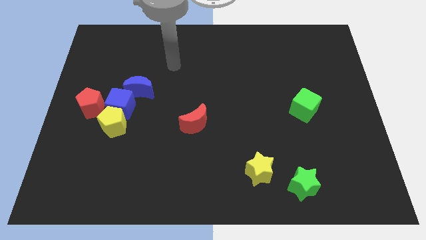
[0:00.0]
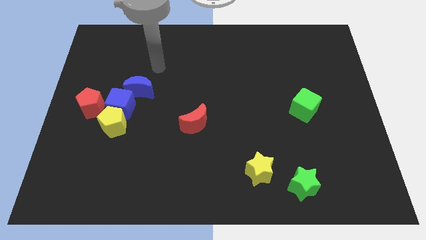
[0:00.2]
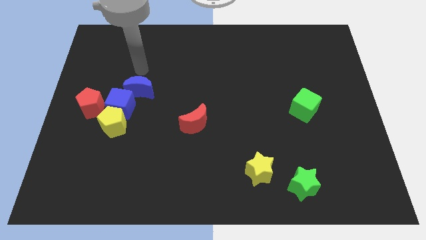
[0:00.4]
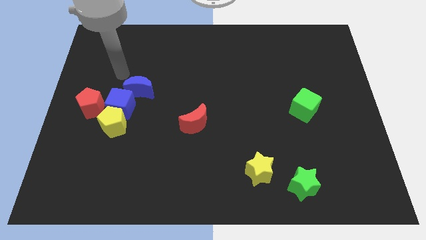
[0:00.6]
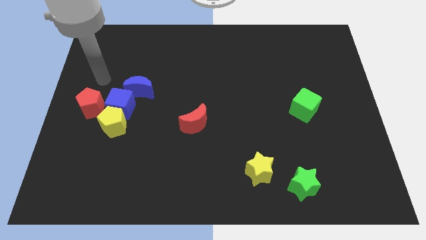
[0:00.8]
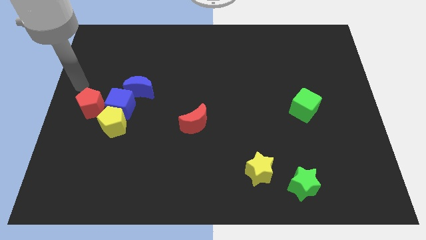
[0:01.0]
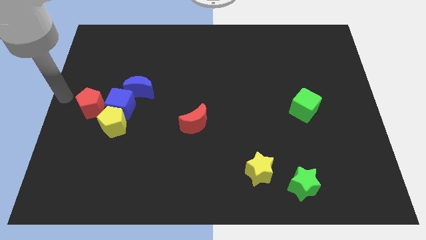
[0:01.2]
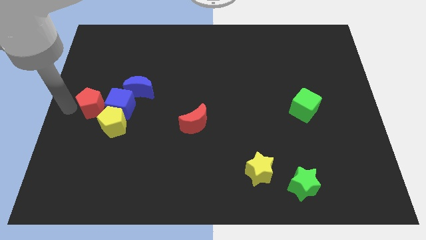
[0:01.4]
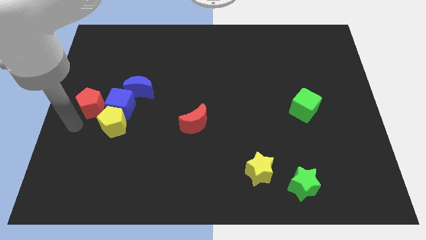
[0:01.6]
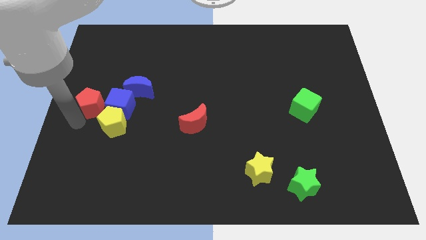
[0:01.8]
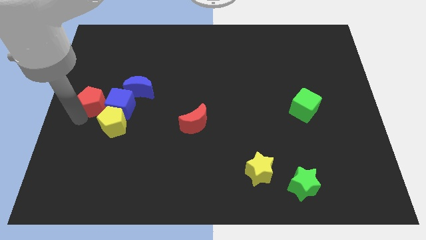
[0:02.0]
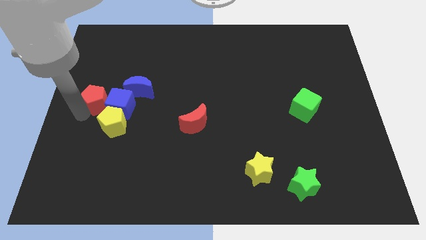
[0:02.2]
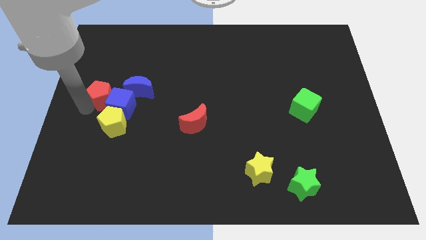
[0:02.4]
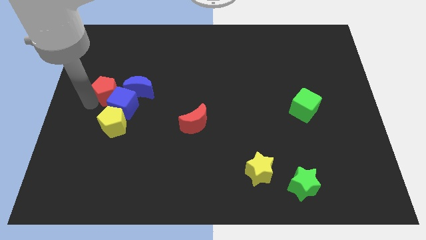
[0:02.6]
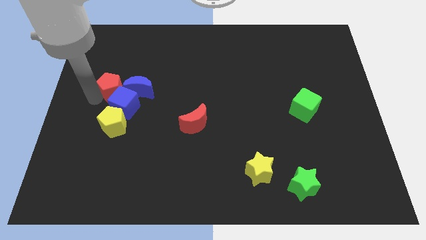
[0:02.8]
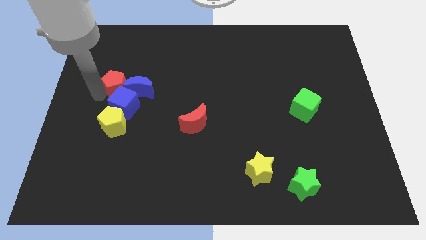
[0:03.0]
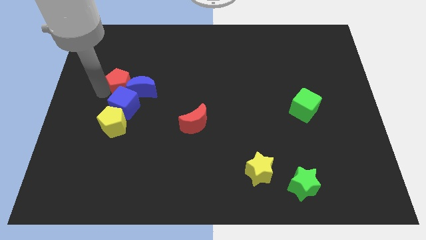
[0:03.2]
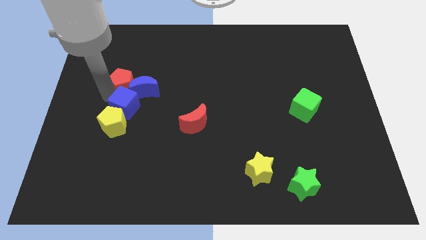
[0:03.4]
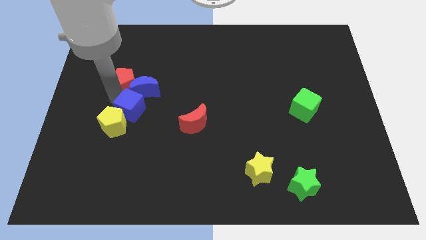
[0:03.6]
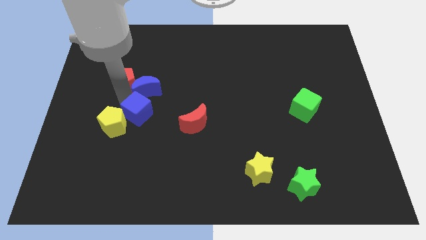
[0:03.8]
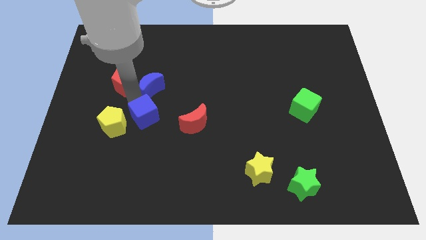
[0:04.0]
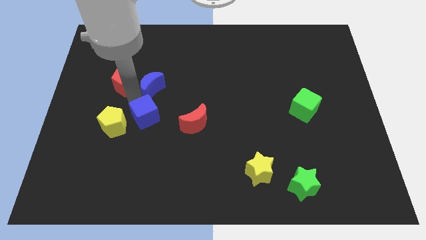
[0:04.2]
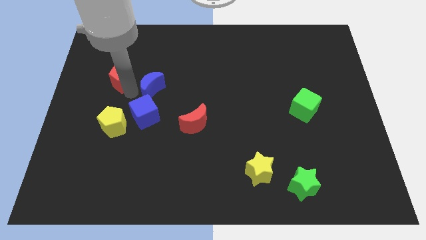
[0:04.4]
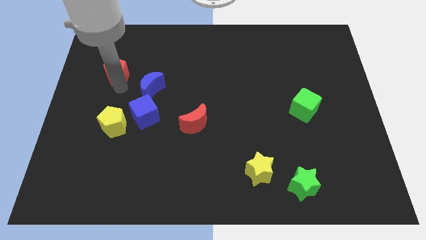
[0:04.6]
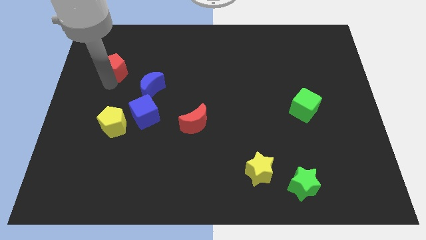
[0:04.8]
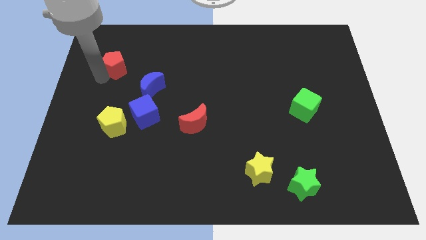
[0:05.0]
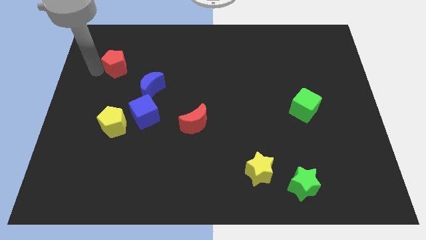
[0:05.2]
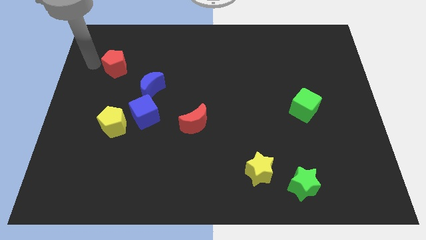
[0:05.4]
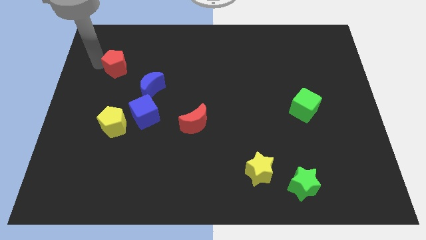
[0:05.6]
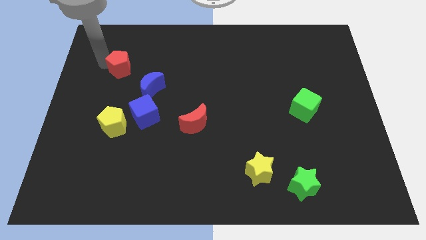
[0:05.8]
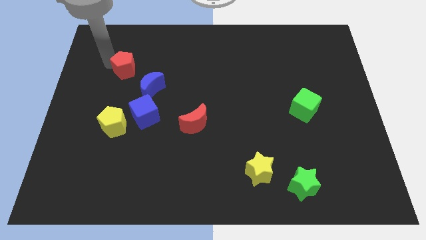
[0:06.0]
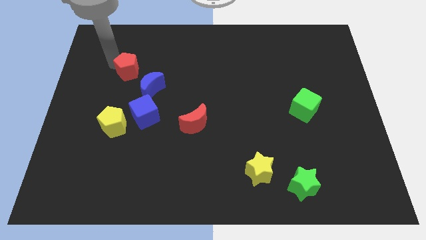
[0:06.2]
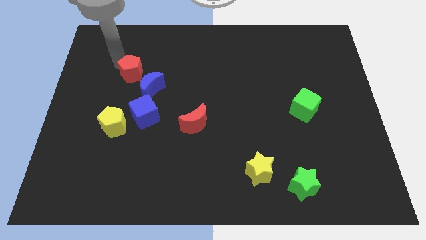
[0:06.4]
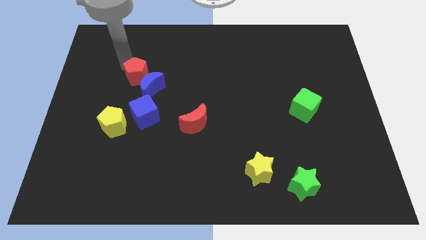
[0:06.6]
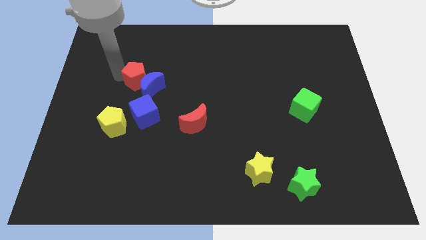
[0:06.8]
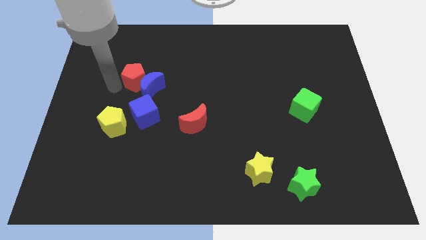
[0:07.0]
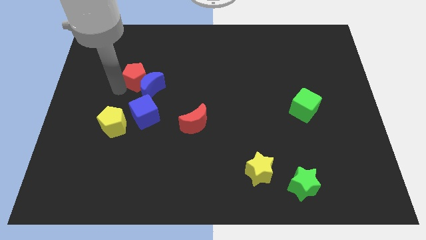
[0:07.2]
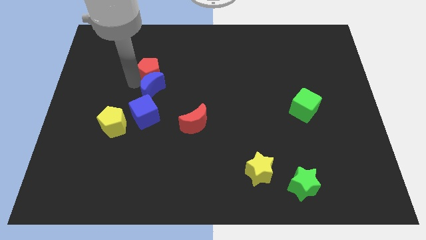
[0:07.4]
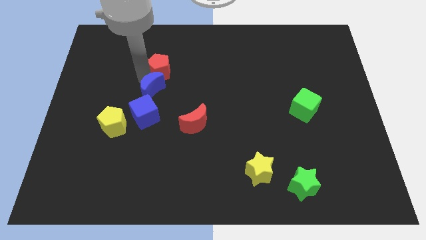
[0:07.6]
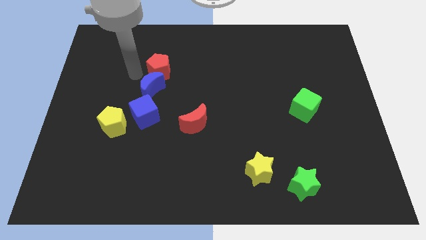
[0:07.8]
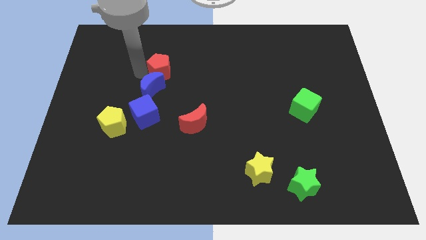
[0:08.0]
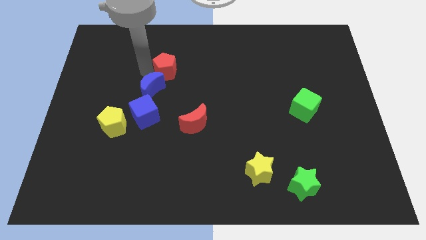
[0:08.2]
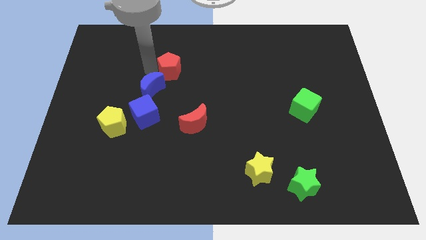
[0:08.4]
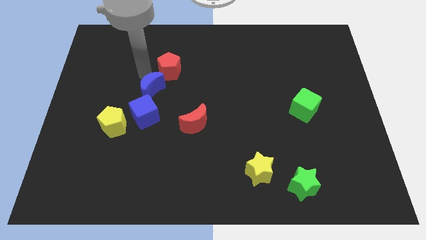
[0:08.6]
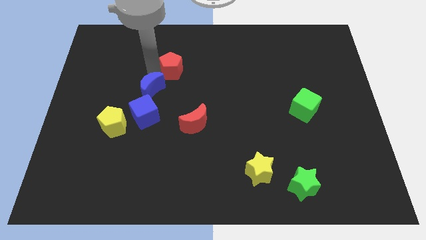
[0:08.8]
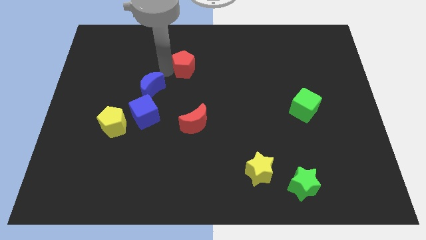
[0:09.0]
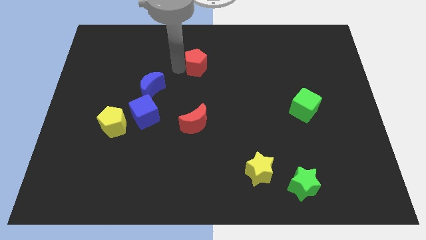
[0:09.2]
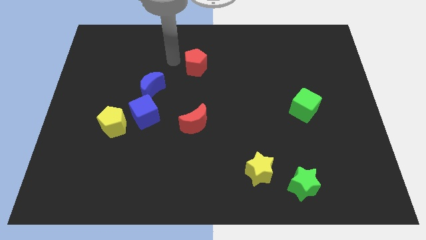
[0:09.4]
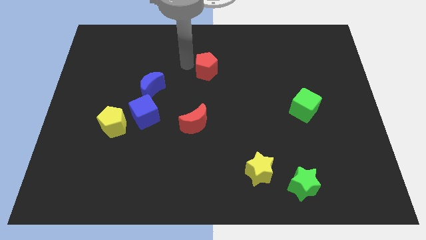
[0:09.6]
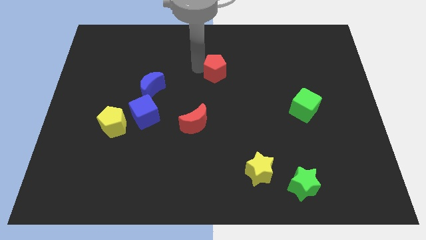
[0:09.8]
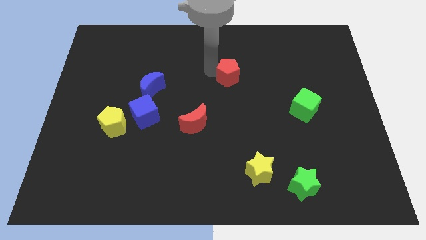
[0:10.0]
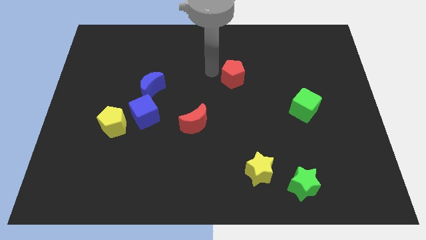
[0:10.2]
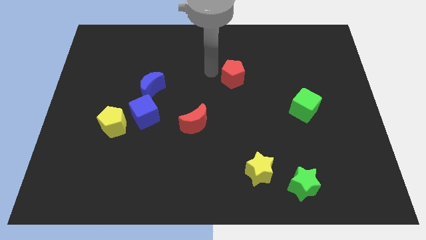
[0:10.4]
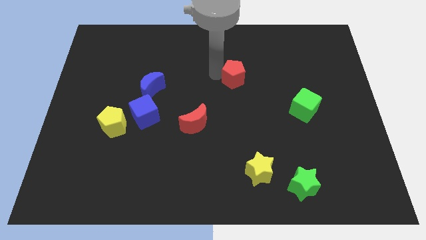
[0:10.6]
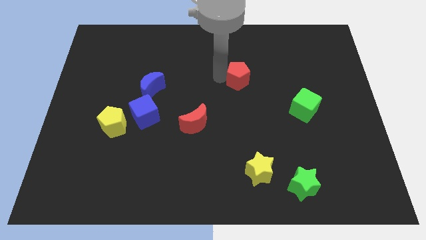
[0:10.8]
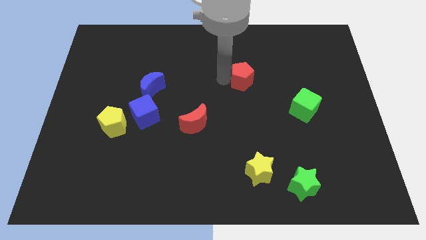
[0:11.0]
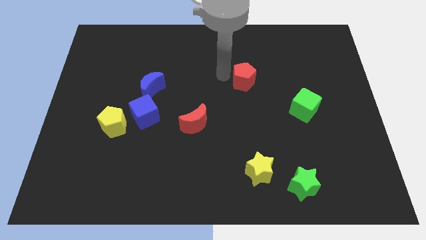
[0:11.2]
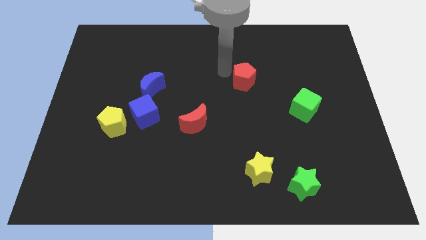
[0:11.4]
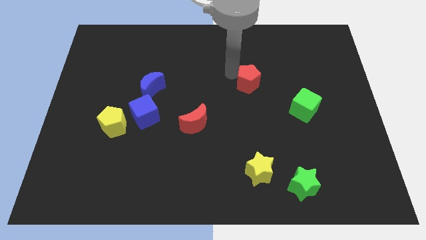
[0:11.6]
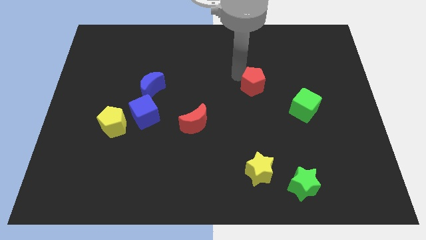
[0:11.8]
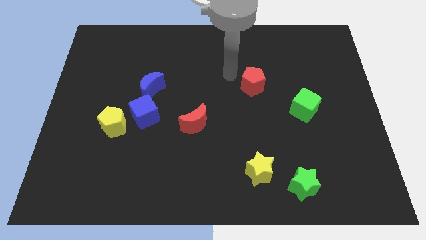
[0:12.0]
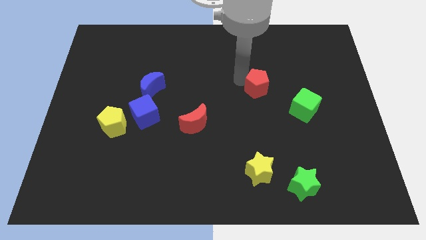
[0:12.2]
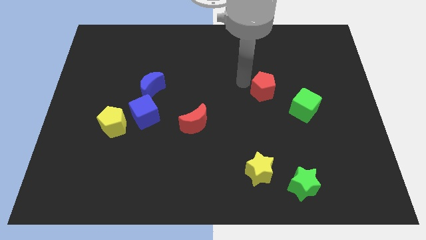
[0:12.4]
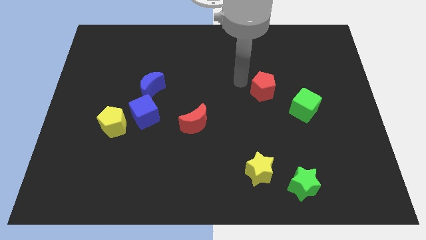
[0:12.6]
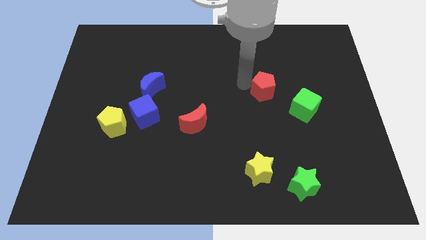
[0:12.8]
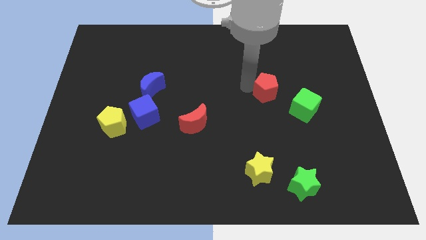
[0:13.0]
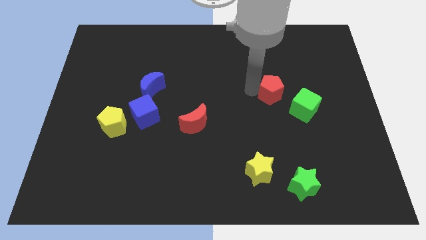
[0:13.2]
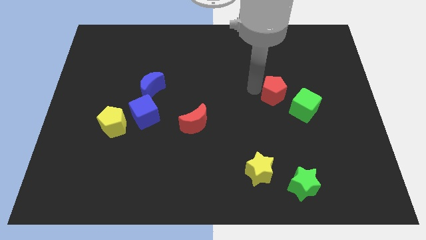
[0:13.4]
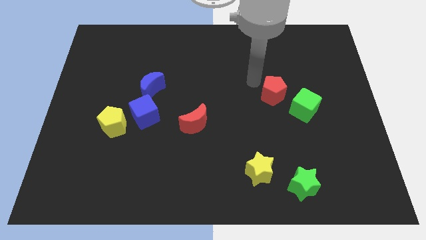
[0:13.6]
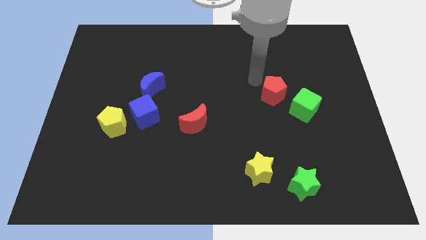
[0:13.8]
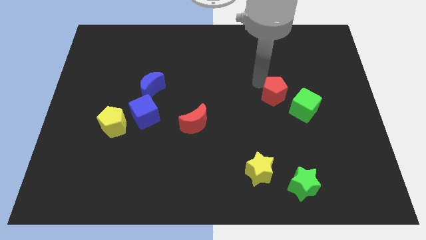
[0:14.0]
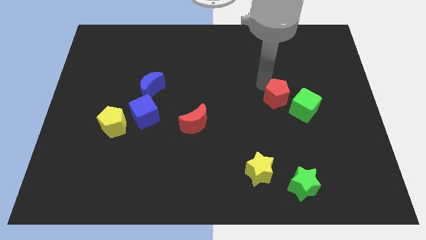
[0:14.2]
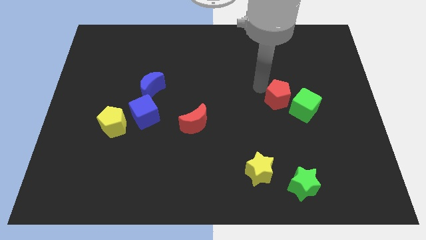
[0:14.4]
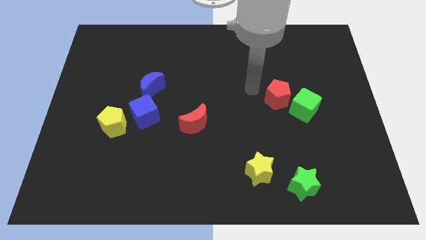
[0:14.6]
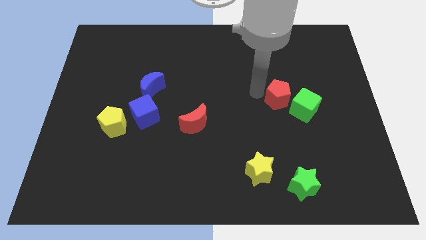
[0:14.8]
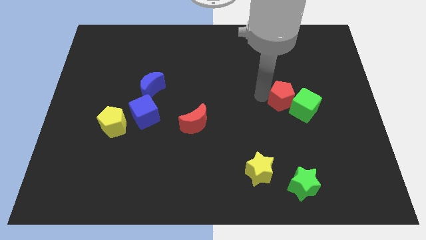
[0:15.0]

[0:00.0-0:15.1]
slide the red pentagon next to the green cube
